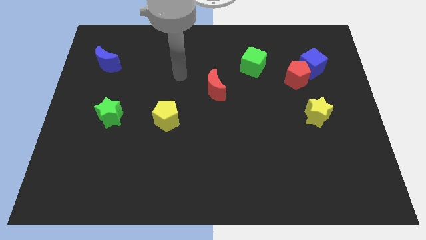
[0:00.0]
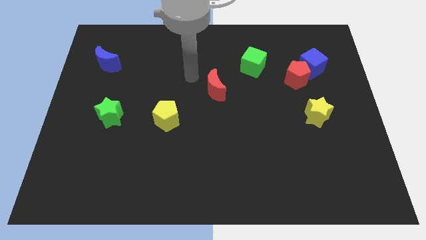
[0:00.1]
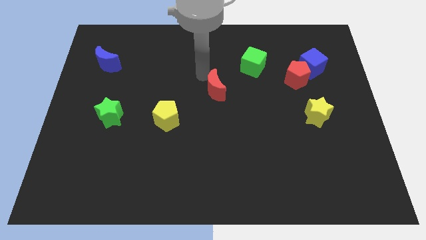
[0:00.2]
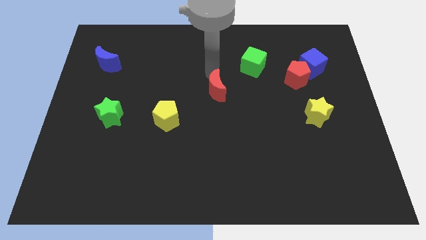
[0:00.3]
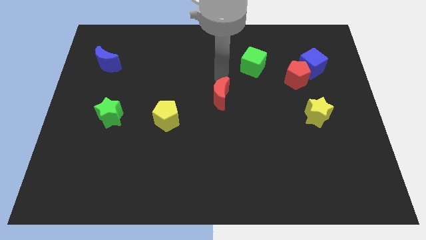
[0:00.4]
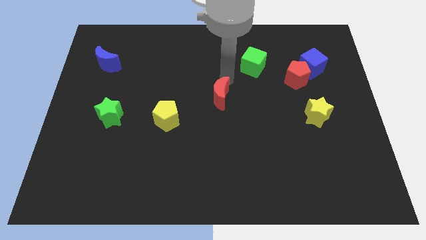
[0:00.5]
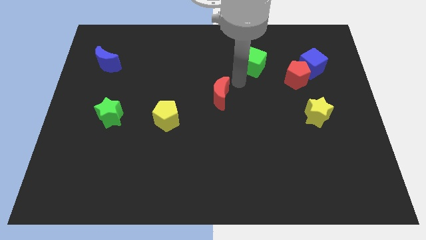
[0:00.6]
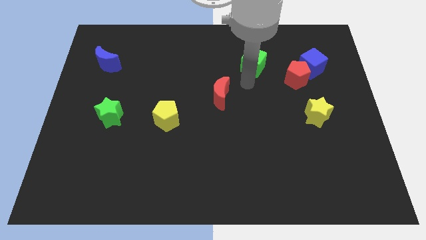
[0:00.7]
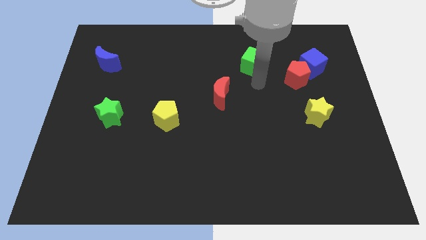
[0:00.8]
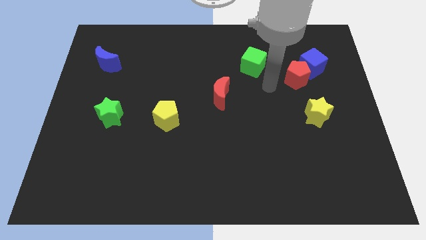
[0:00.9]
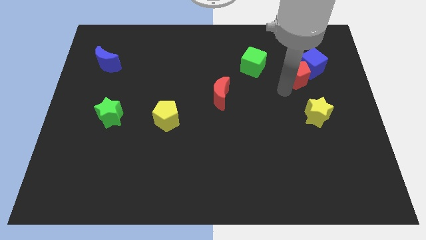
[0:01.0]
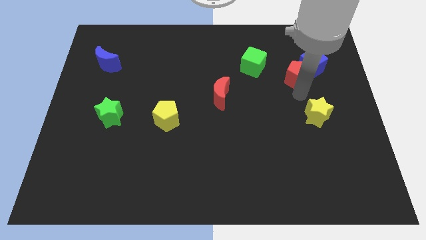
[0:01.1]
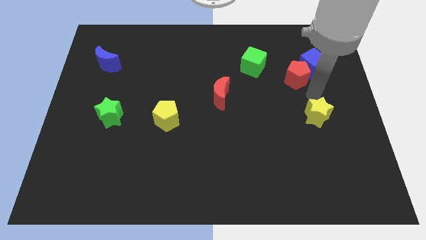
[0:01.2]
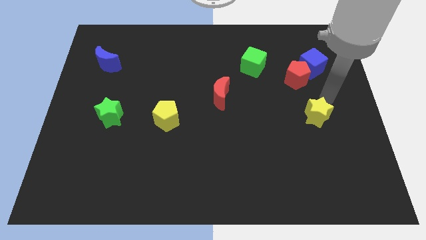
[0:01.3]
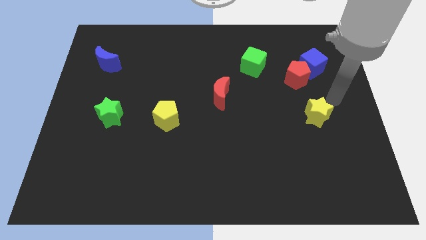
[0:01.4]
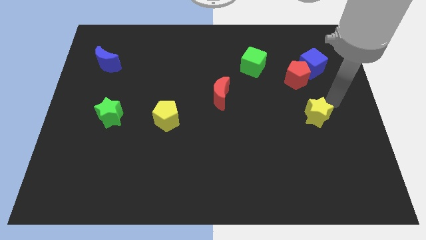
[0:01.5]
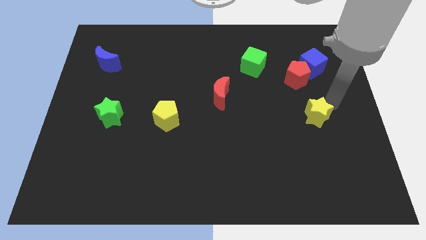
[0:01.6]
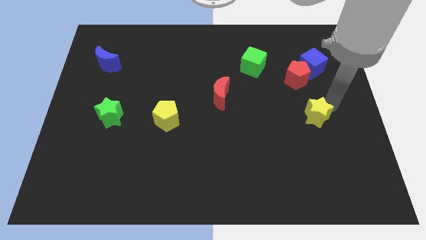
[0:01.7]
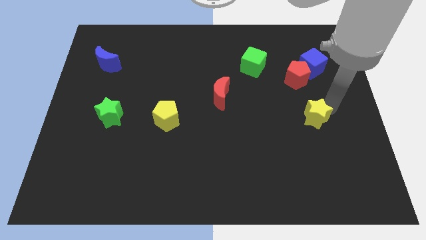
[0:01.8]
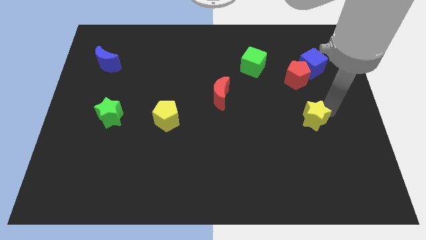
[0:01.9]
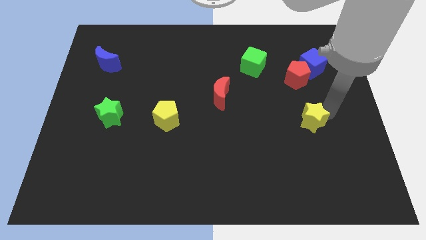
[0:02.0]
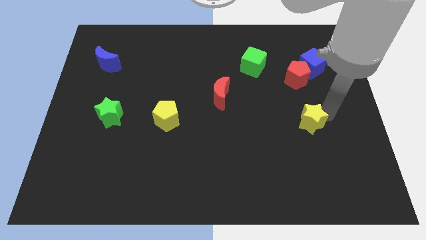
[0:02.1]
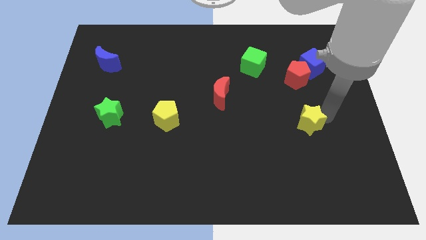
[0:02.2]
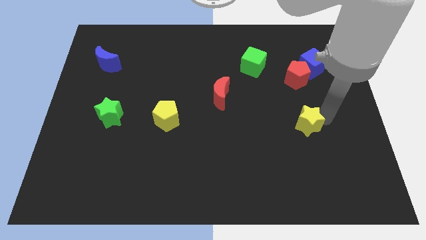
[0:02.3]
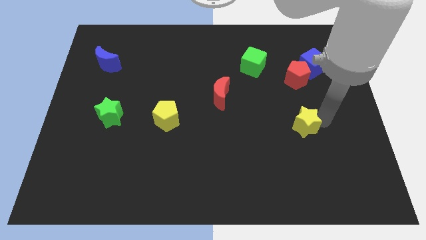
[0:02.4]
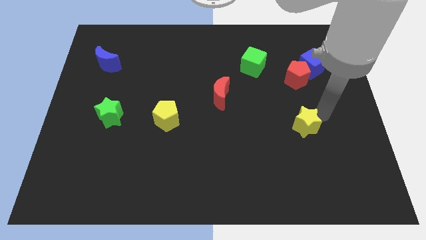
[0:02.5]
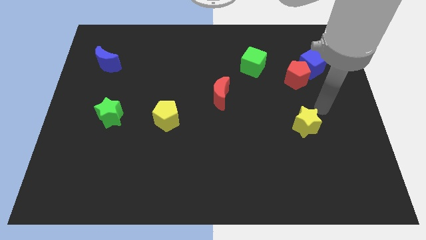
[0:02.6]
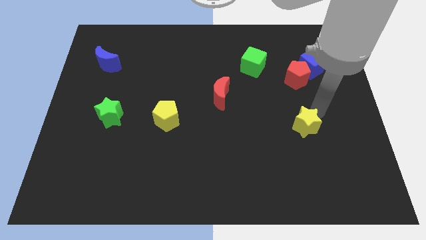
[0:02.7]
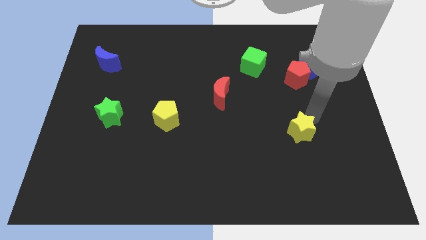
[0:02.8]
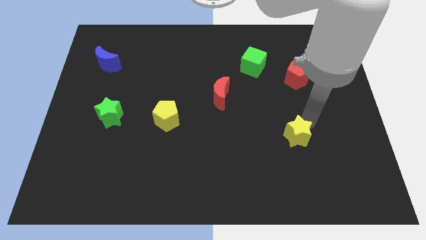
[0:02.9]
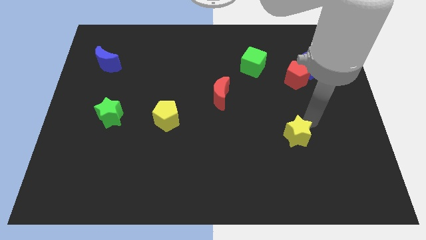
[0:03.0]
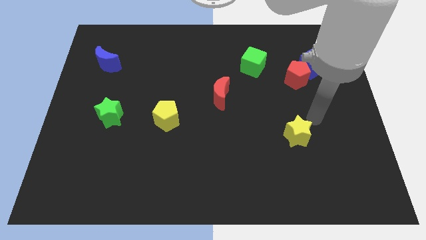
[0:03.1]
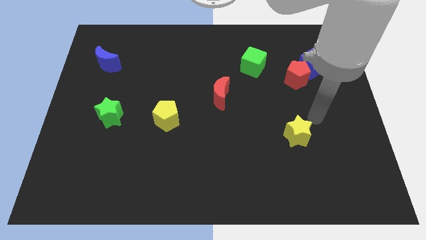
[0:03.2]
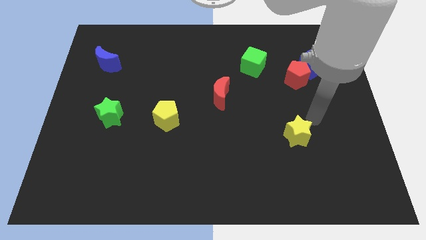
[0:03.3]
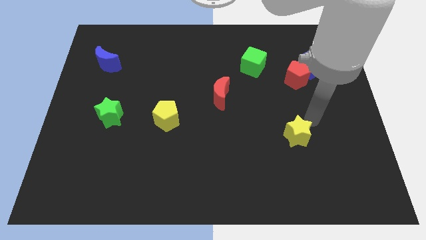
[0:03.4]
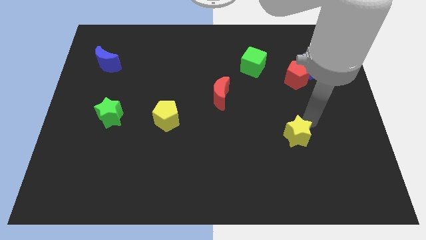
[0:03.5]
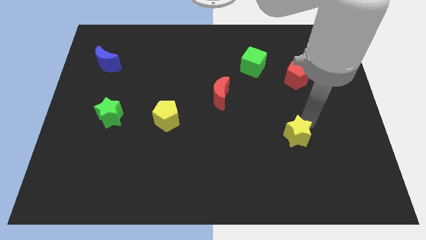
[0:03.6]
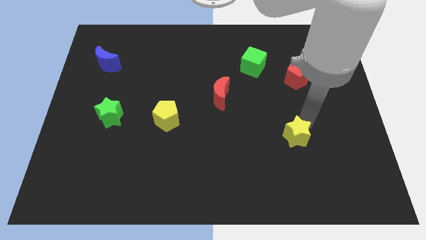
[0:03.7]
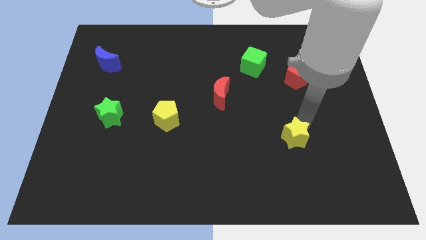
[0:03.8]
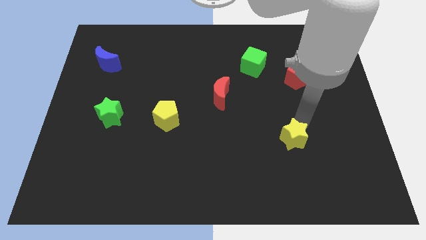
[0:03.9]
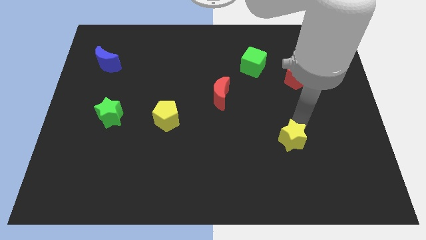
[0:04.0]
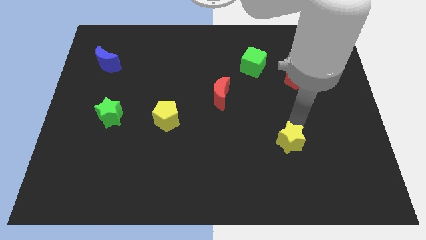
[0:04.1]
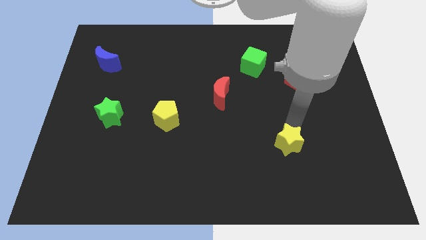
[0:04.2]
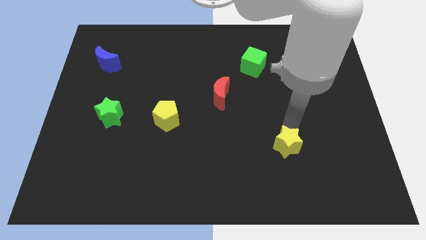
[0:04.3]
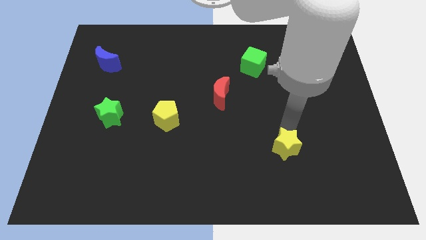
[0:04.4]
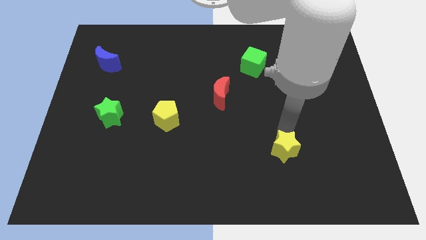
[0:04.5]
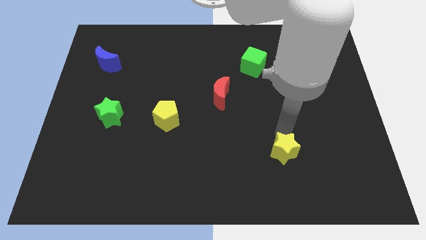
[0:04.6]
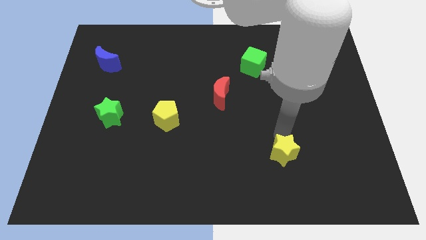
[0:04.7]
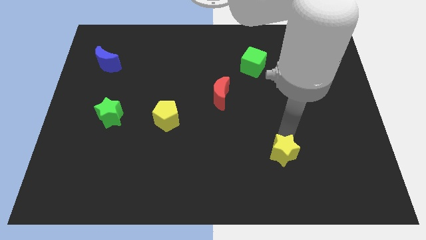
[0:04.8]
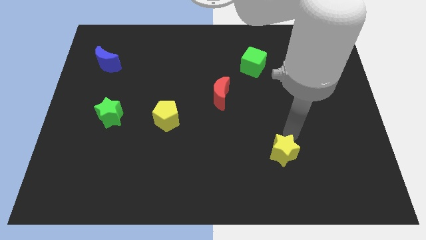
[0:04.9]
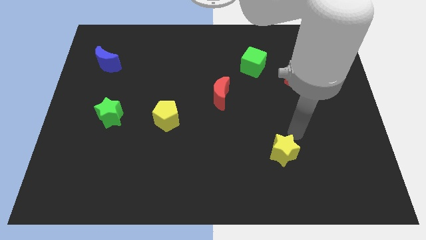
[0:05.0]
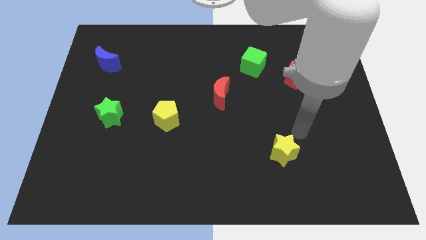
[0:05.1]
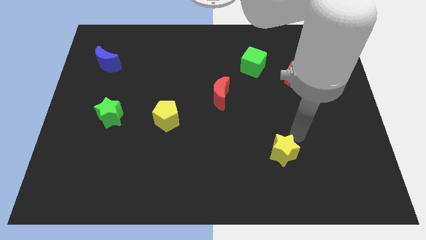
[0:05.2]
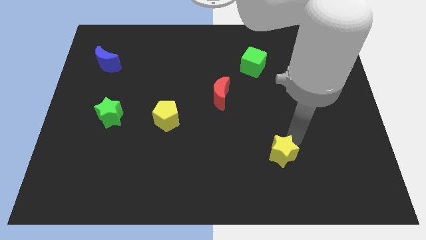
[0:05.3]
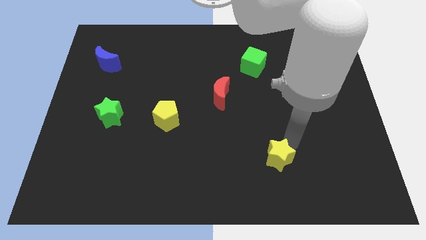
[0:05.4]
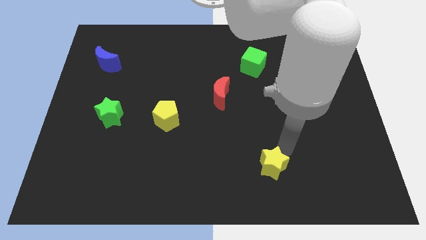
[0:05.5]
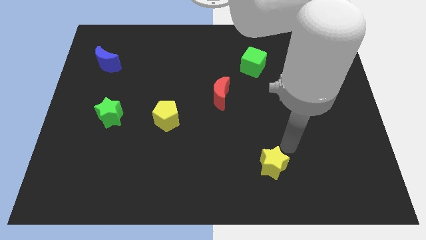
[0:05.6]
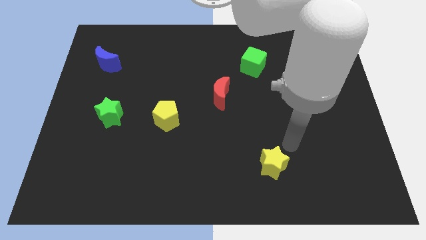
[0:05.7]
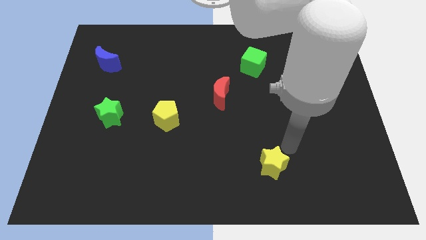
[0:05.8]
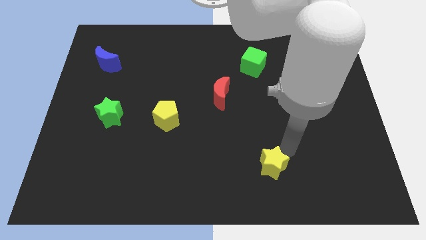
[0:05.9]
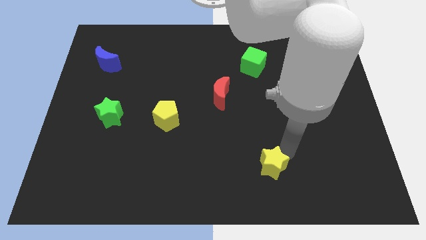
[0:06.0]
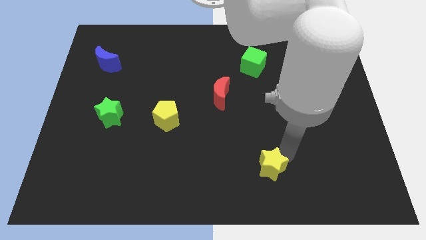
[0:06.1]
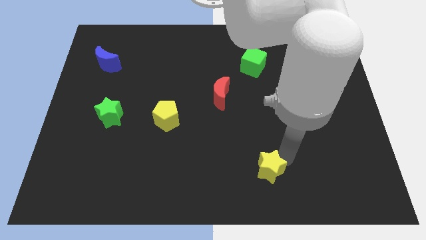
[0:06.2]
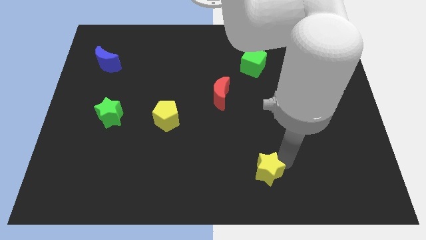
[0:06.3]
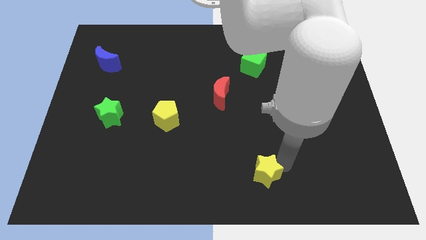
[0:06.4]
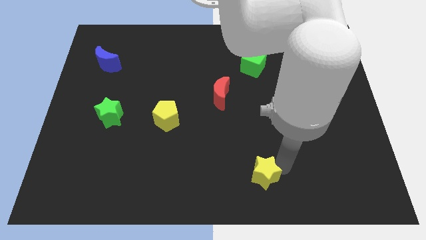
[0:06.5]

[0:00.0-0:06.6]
push the yellow star to the bottom side
